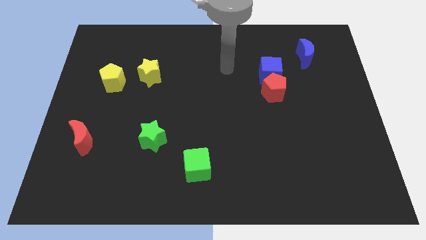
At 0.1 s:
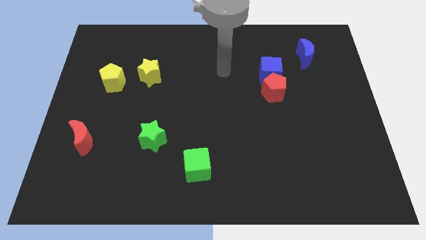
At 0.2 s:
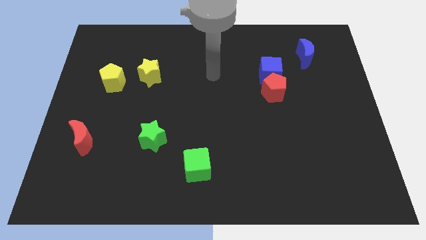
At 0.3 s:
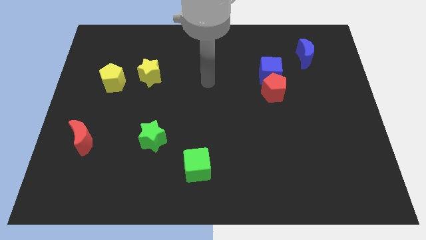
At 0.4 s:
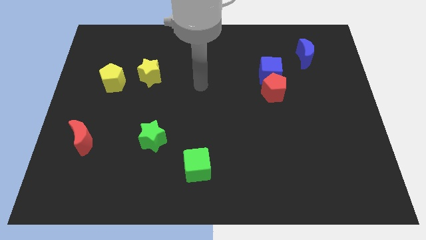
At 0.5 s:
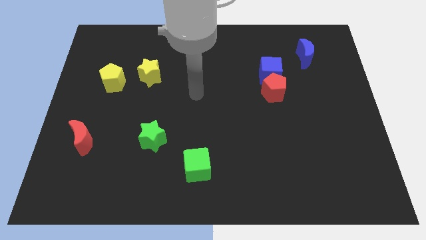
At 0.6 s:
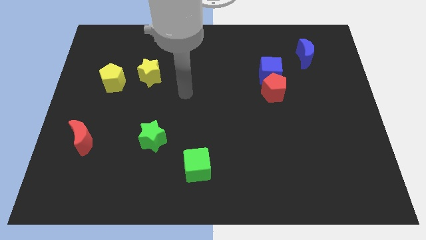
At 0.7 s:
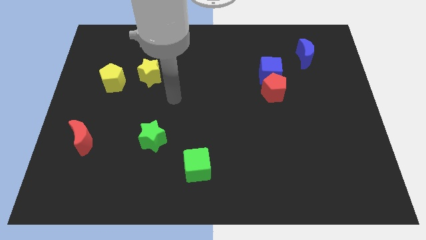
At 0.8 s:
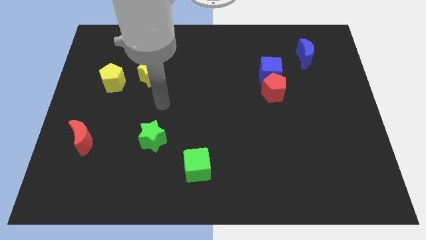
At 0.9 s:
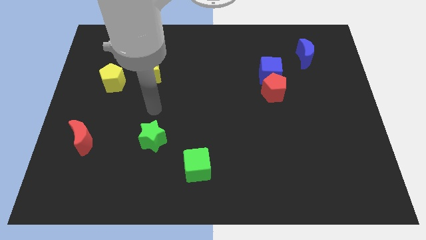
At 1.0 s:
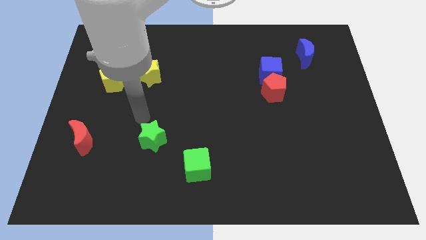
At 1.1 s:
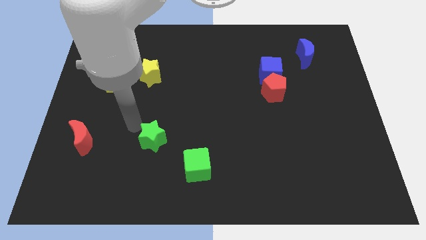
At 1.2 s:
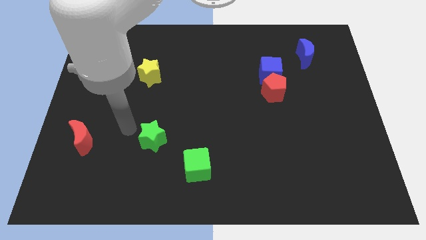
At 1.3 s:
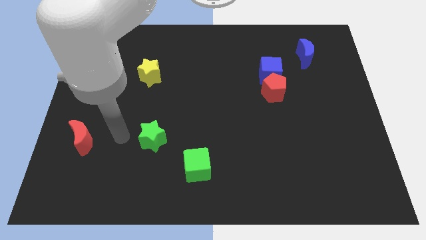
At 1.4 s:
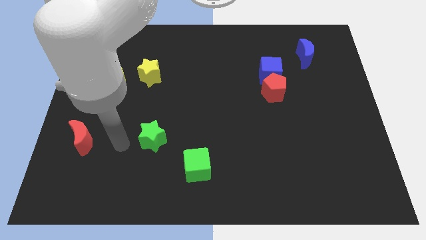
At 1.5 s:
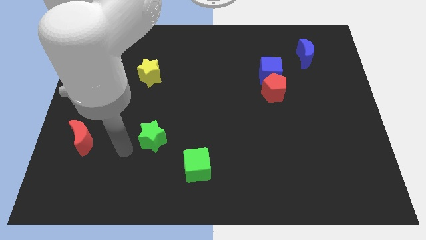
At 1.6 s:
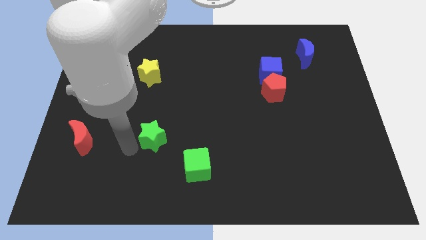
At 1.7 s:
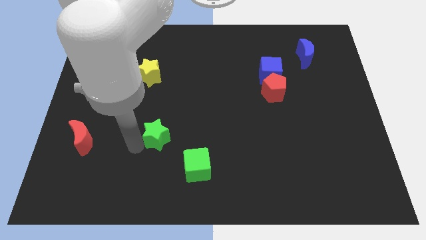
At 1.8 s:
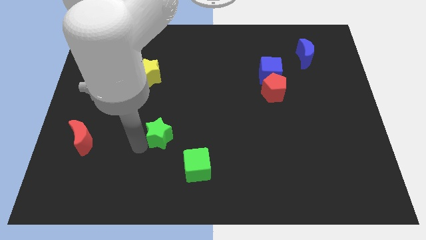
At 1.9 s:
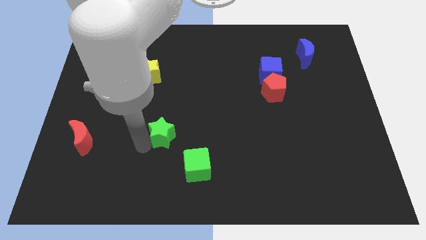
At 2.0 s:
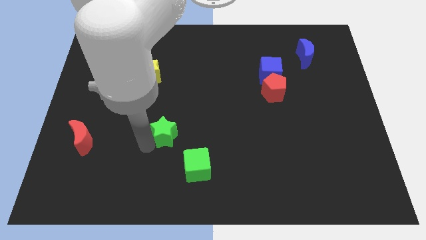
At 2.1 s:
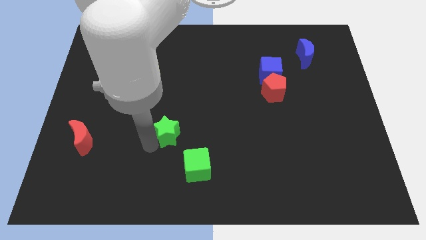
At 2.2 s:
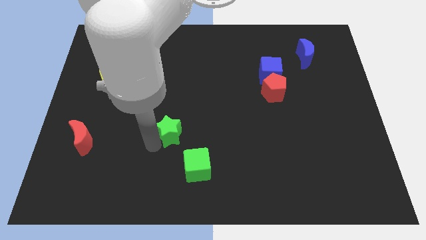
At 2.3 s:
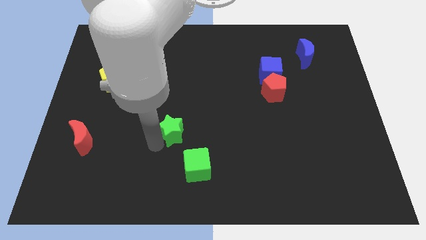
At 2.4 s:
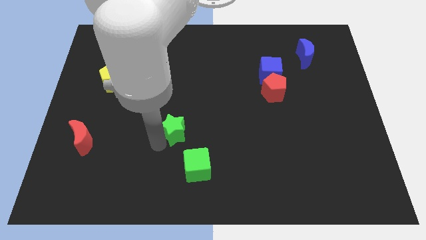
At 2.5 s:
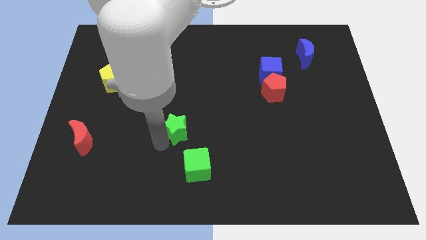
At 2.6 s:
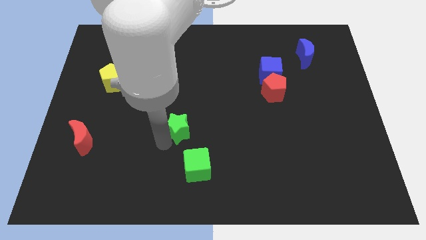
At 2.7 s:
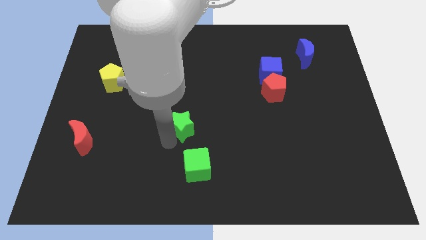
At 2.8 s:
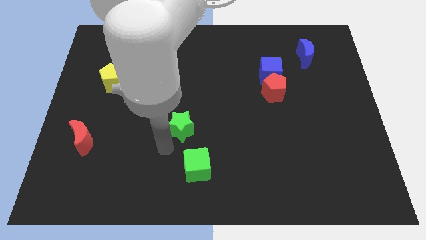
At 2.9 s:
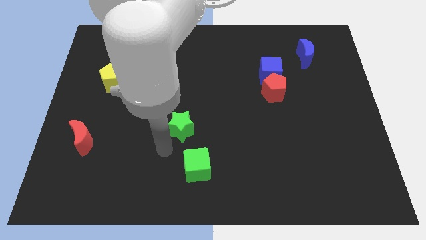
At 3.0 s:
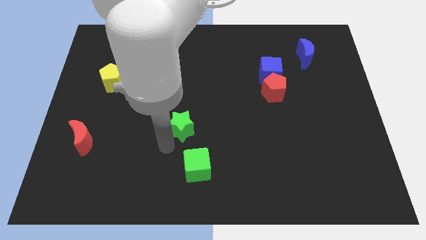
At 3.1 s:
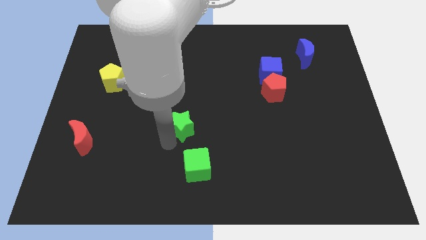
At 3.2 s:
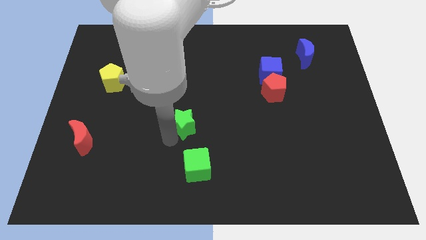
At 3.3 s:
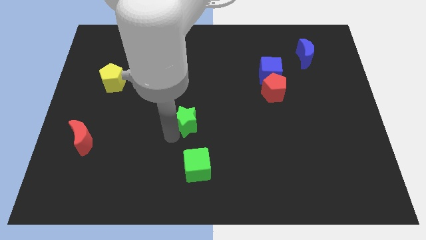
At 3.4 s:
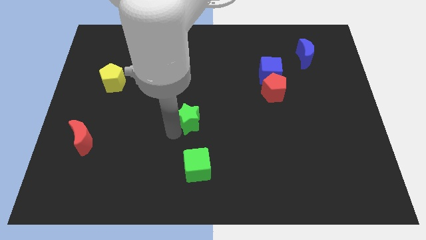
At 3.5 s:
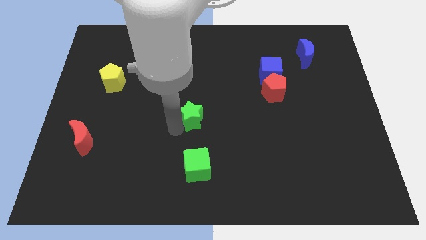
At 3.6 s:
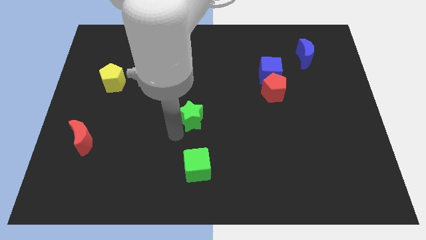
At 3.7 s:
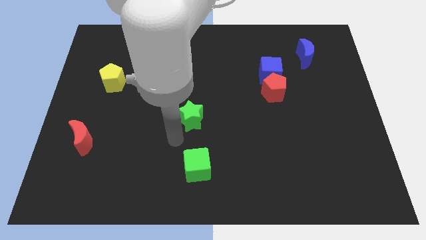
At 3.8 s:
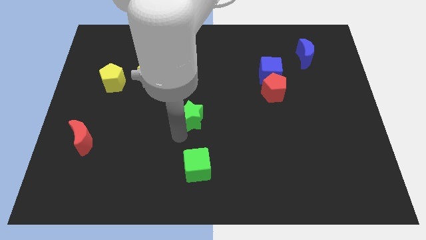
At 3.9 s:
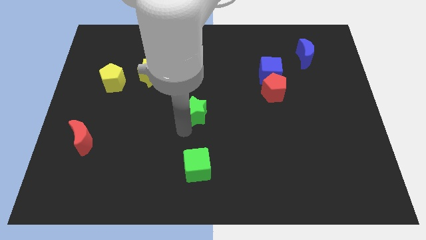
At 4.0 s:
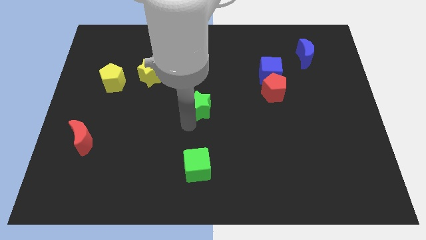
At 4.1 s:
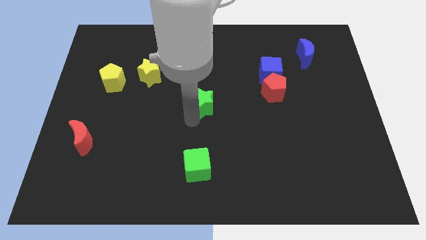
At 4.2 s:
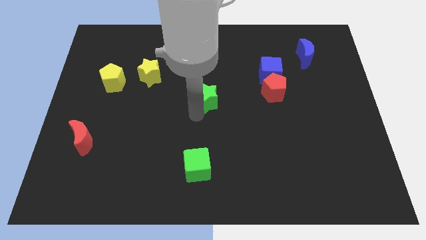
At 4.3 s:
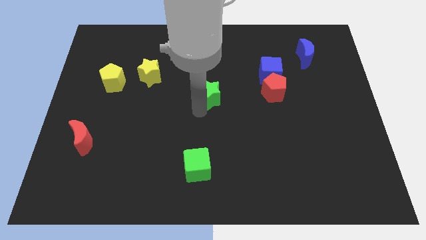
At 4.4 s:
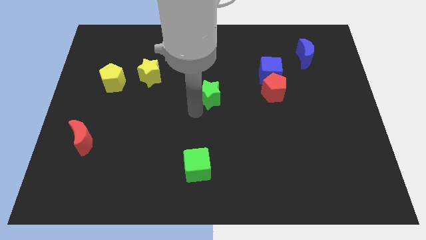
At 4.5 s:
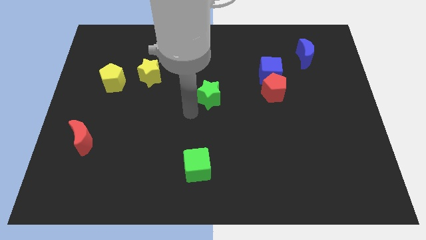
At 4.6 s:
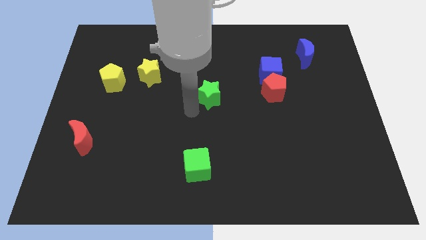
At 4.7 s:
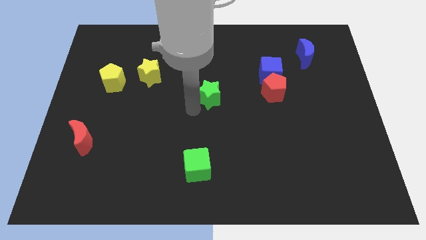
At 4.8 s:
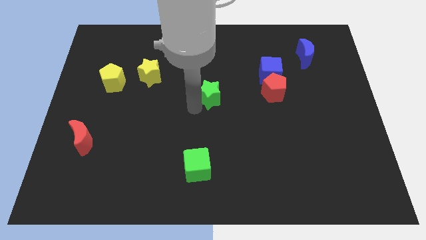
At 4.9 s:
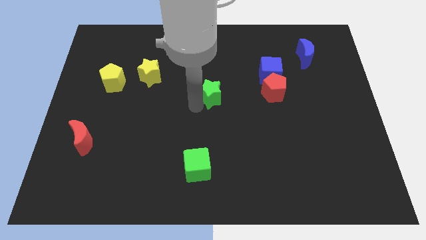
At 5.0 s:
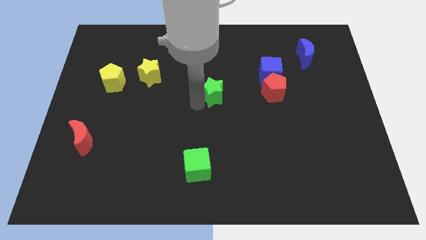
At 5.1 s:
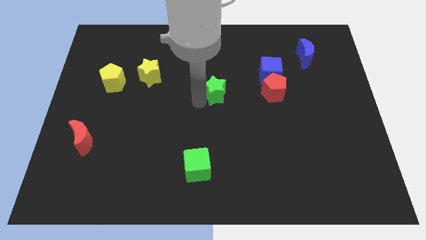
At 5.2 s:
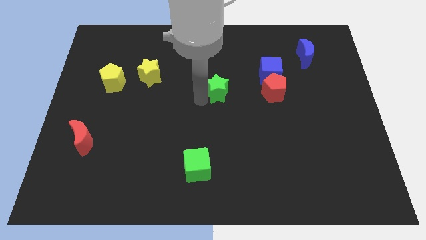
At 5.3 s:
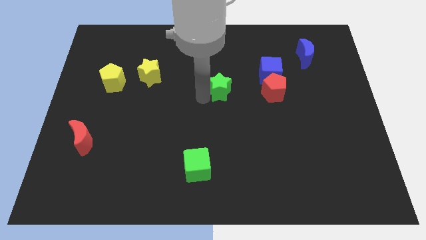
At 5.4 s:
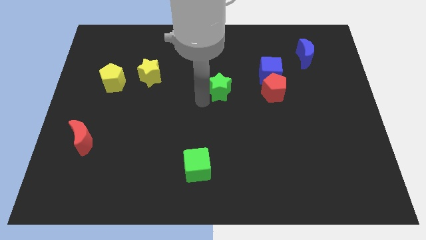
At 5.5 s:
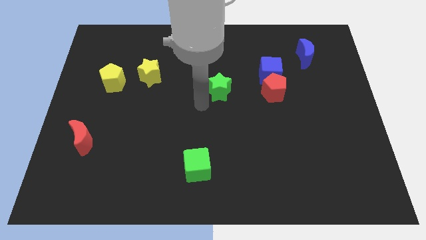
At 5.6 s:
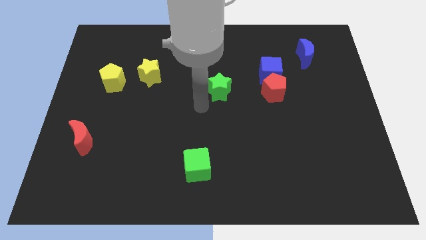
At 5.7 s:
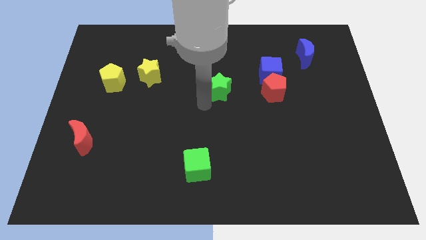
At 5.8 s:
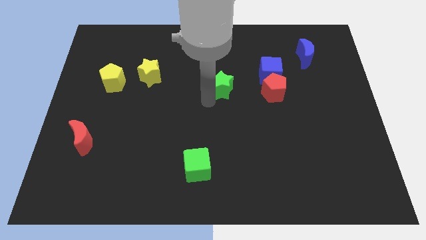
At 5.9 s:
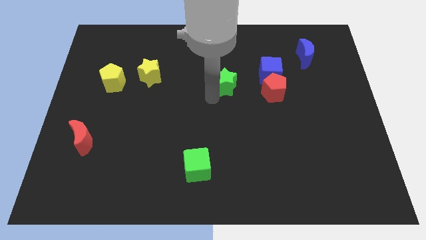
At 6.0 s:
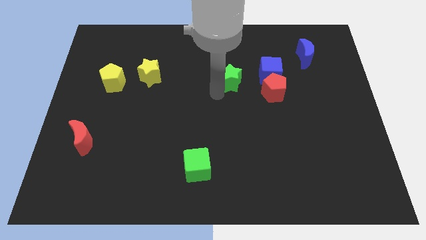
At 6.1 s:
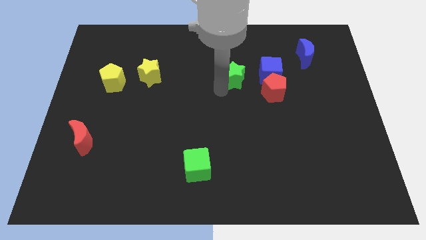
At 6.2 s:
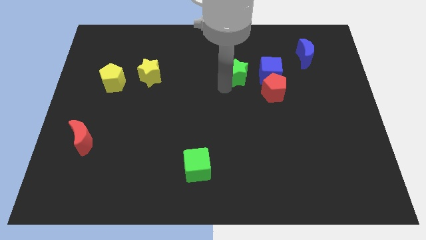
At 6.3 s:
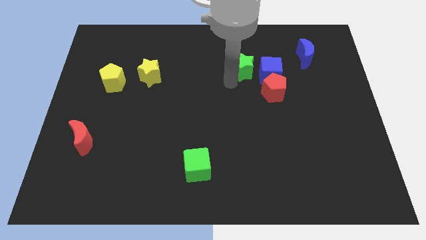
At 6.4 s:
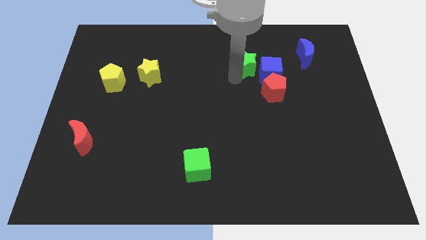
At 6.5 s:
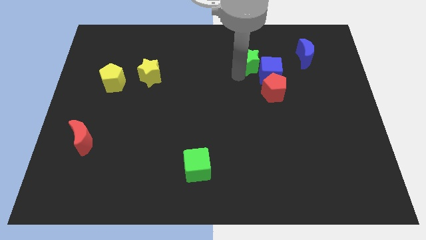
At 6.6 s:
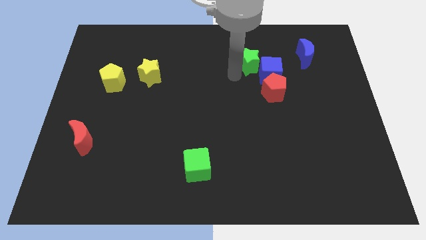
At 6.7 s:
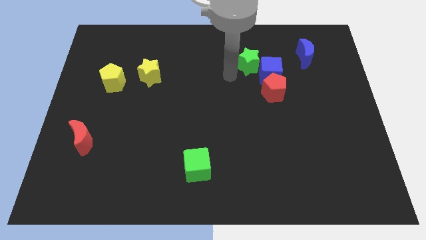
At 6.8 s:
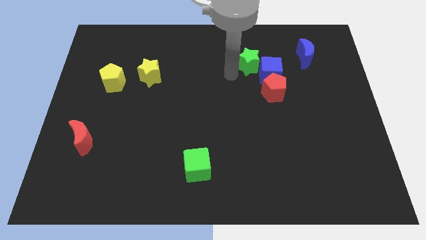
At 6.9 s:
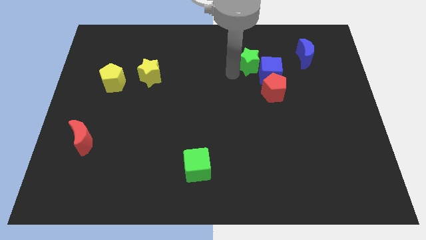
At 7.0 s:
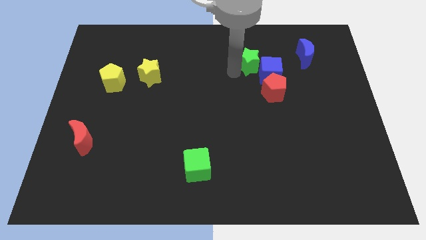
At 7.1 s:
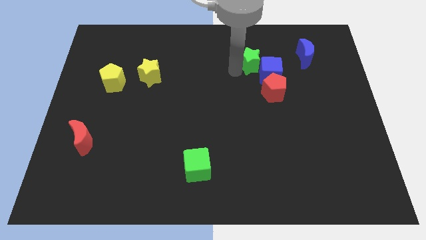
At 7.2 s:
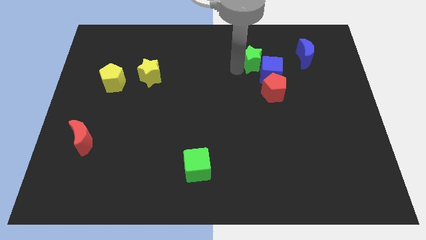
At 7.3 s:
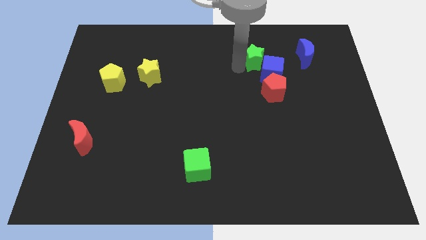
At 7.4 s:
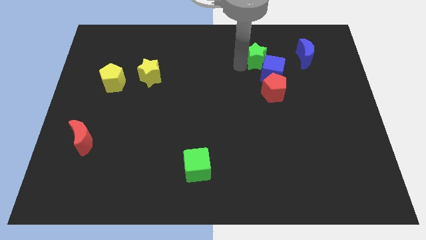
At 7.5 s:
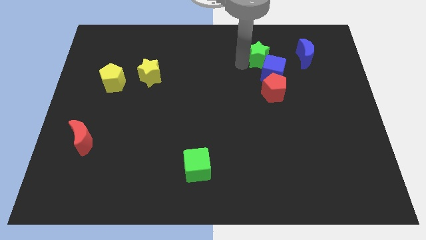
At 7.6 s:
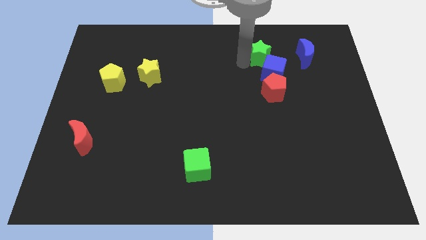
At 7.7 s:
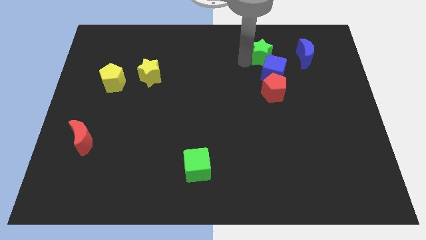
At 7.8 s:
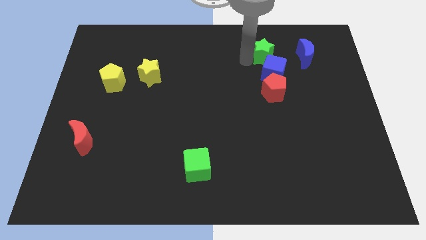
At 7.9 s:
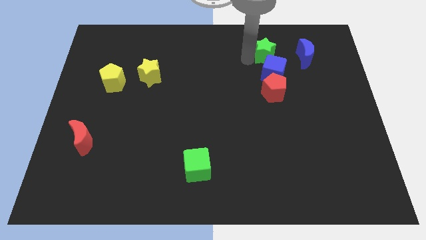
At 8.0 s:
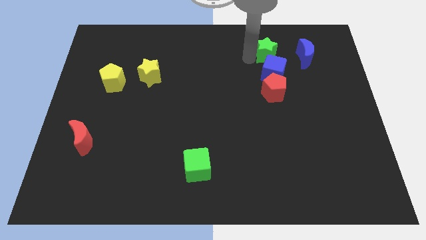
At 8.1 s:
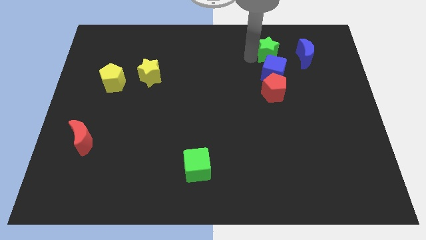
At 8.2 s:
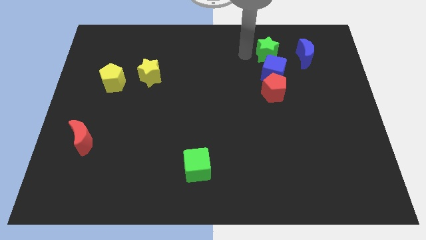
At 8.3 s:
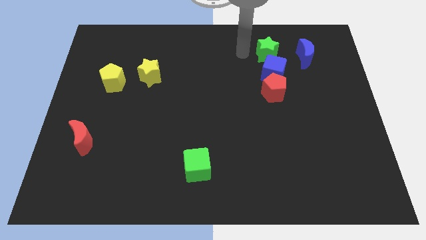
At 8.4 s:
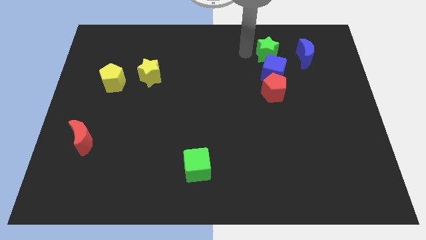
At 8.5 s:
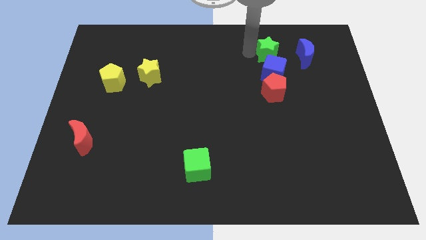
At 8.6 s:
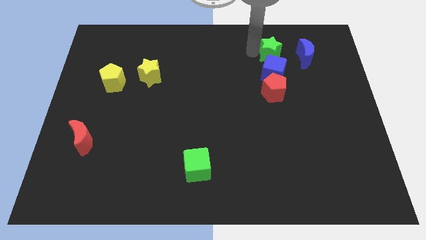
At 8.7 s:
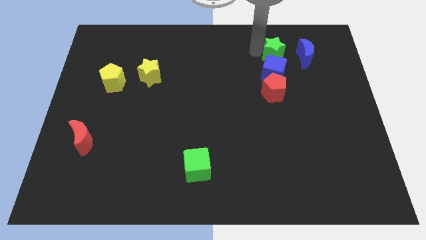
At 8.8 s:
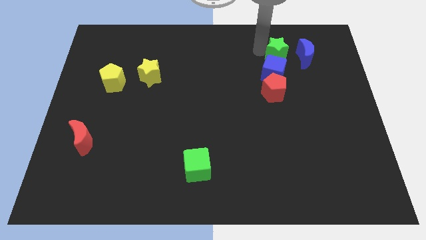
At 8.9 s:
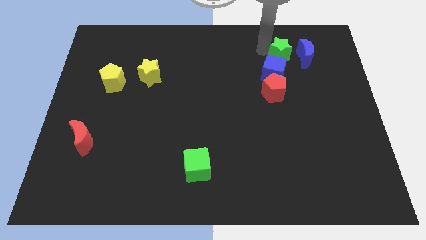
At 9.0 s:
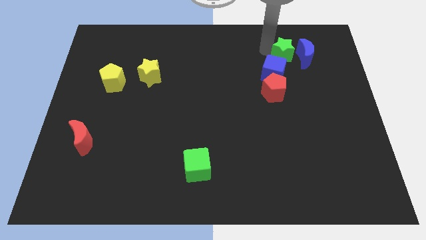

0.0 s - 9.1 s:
push the green star towards the blue moon
